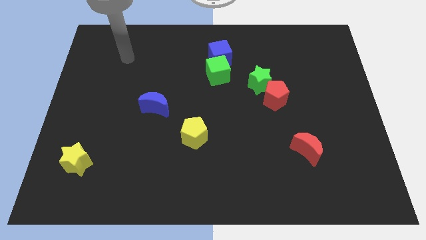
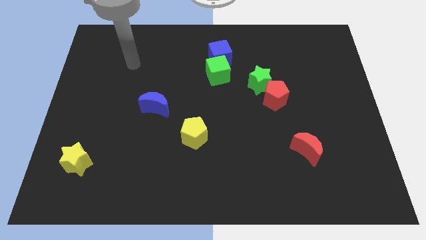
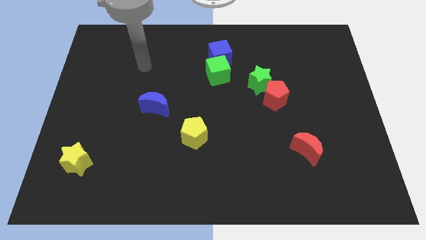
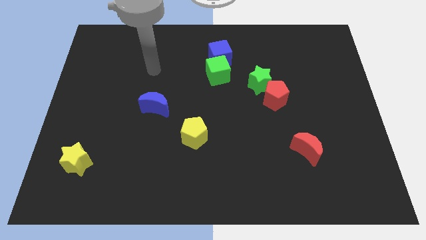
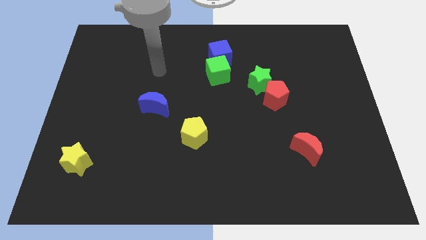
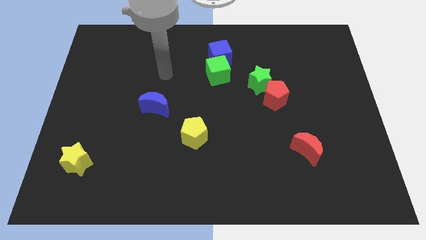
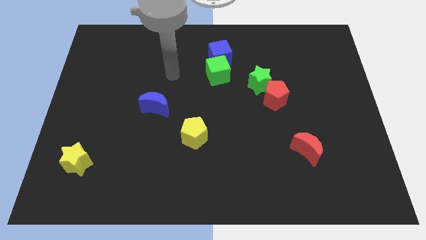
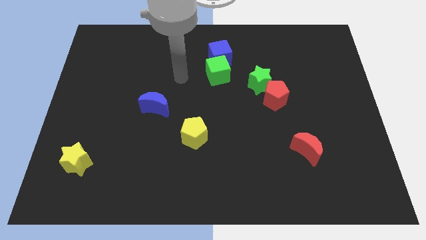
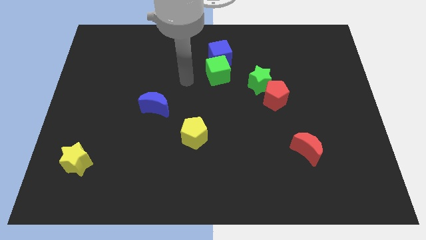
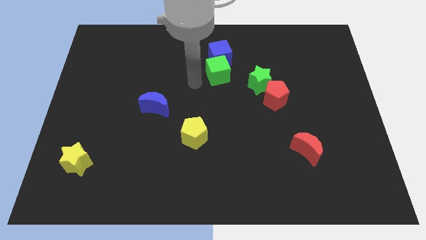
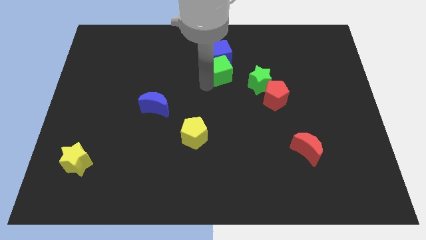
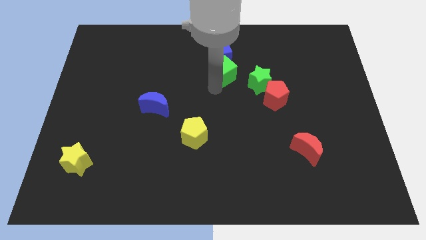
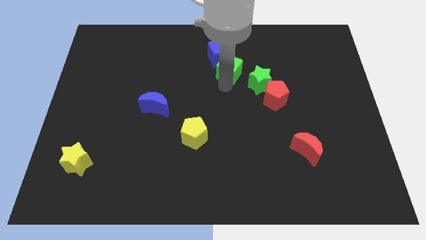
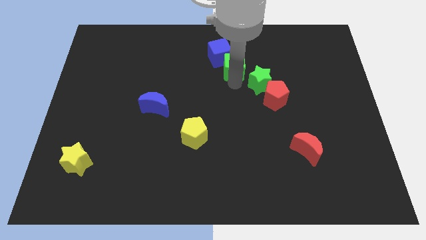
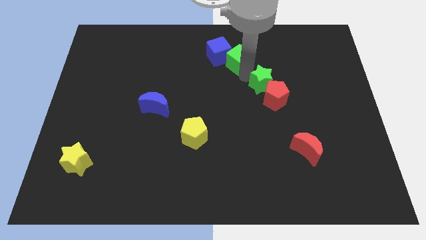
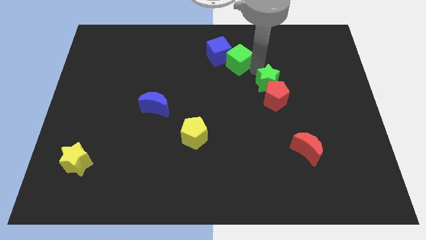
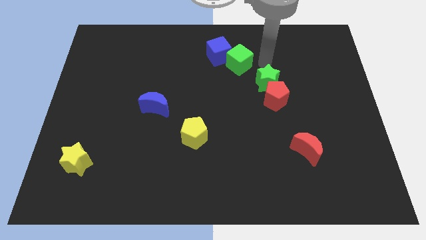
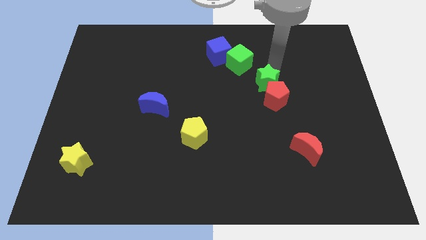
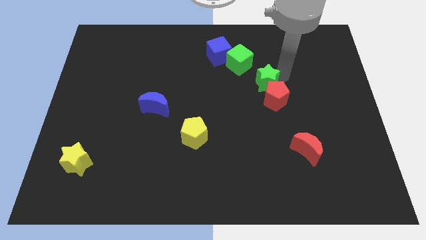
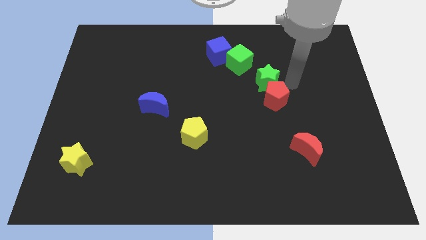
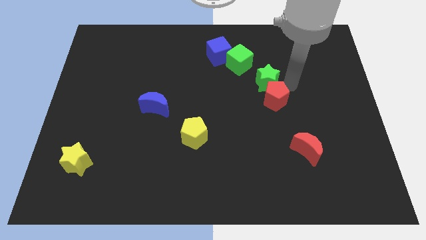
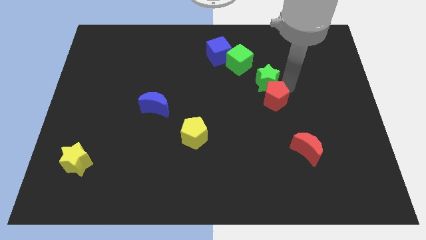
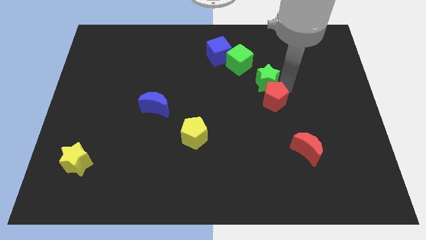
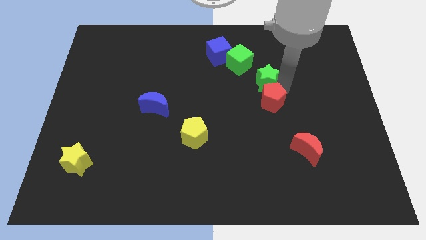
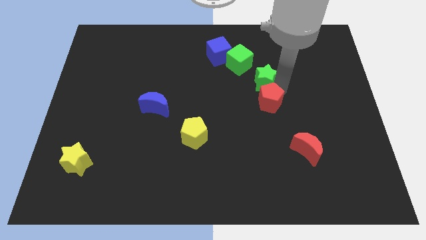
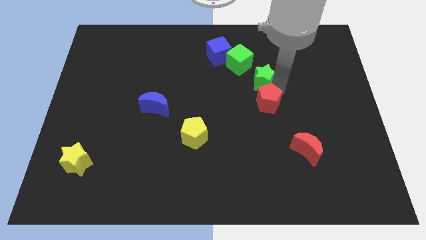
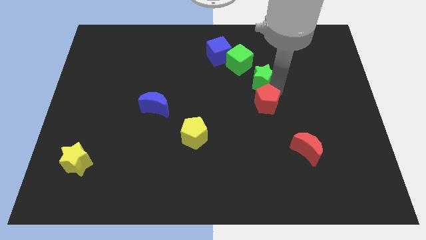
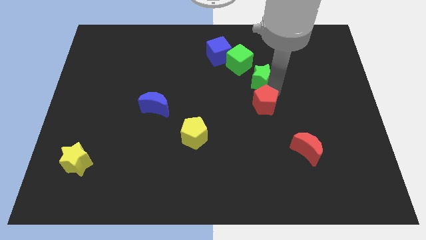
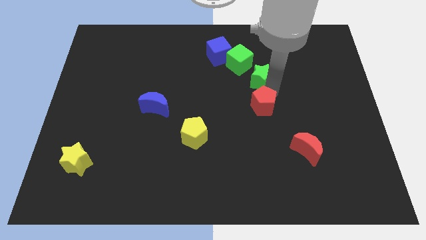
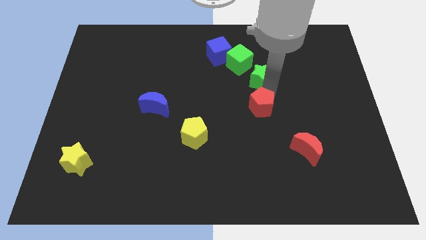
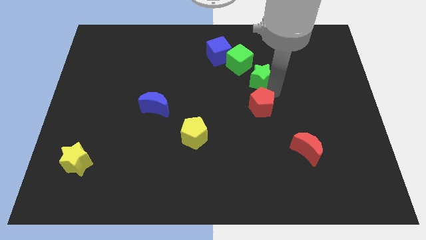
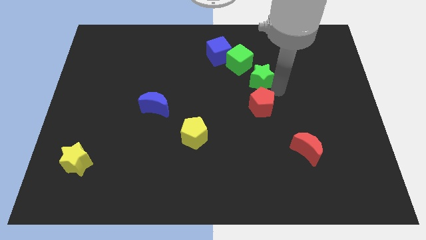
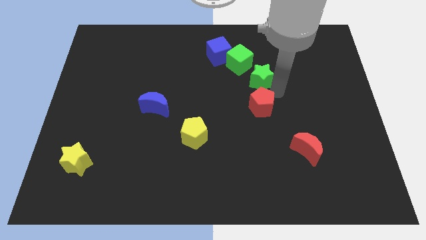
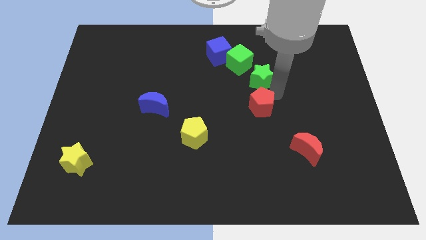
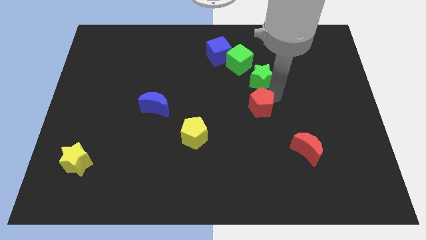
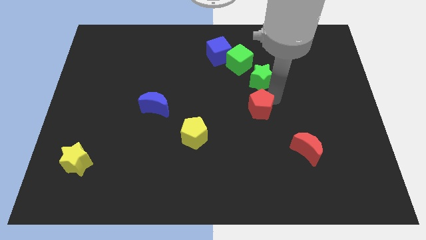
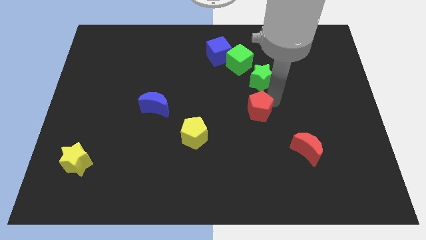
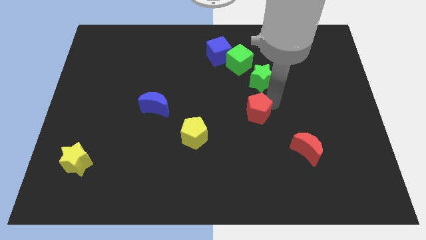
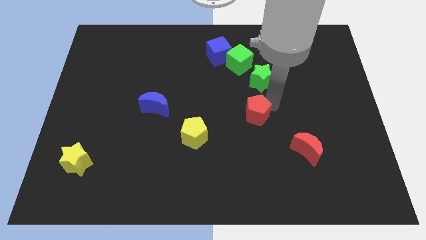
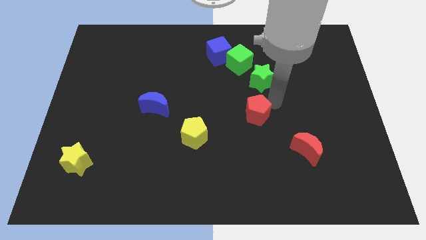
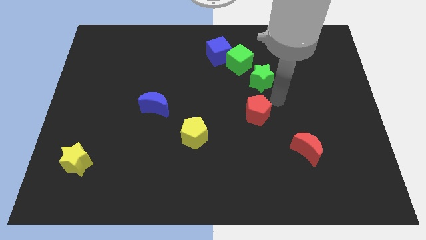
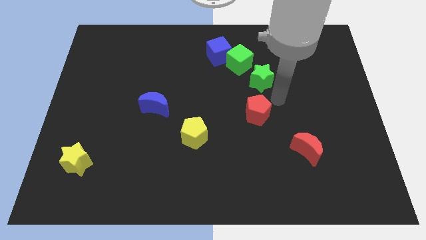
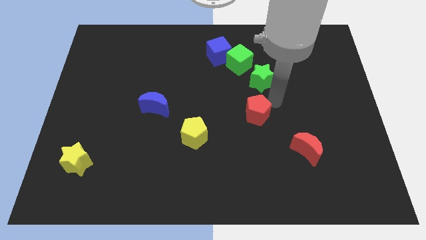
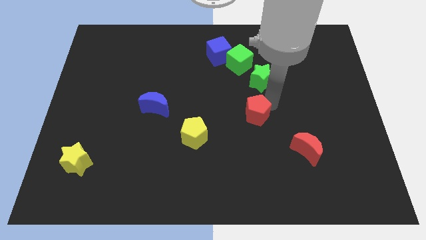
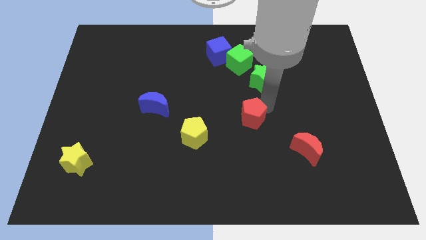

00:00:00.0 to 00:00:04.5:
push the red pentagon a bit diagonally down and left

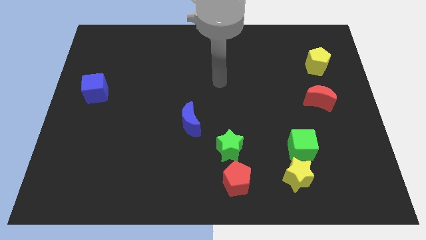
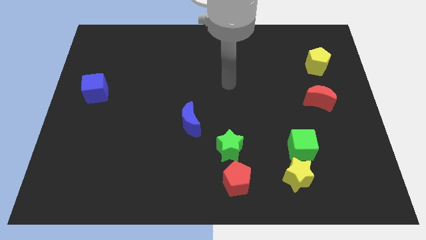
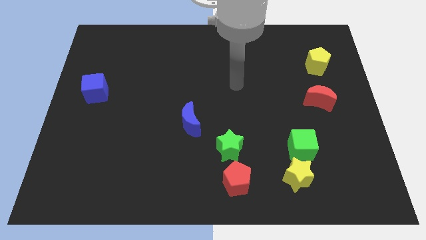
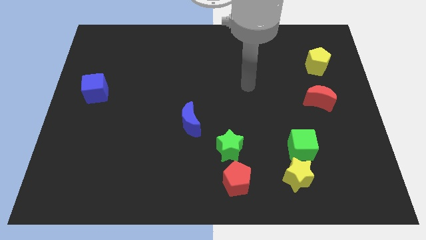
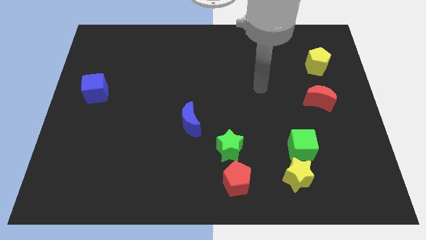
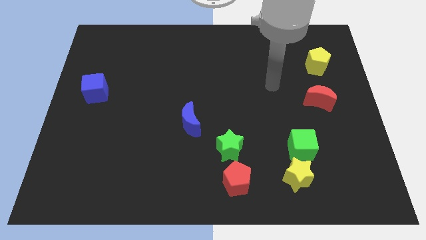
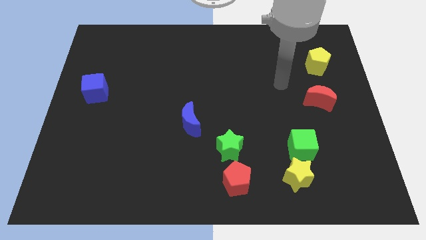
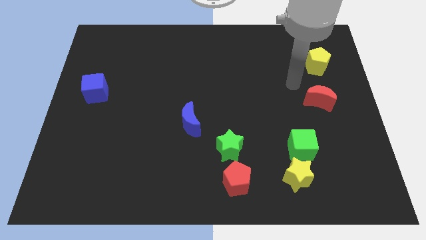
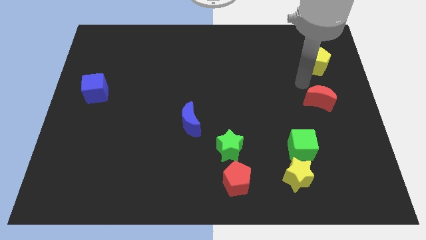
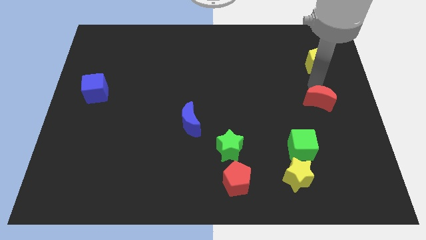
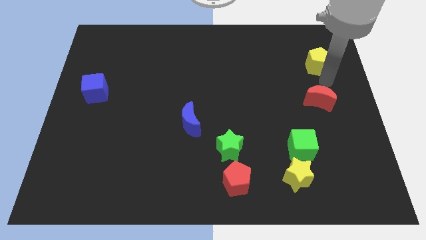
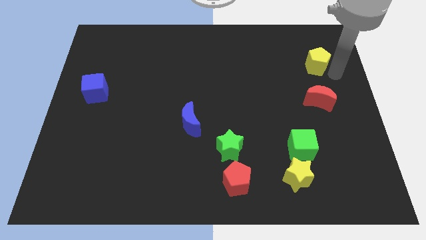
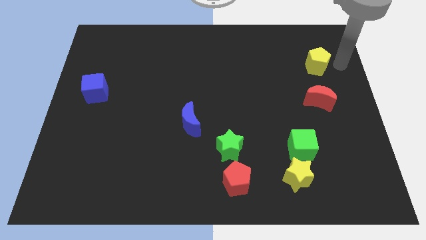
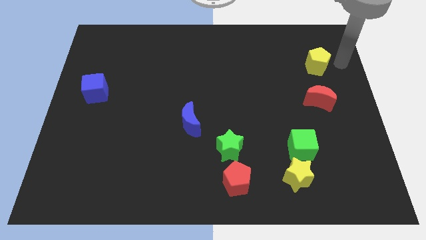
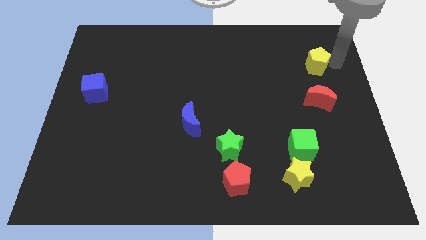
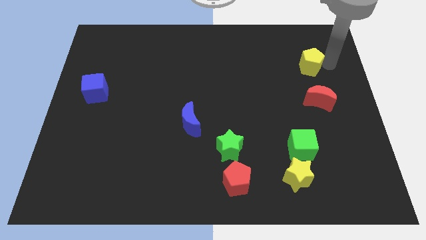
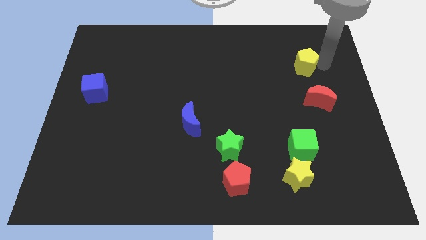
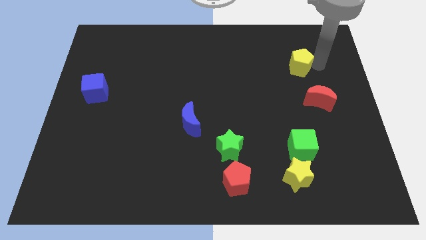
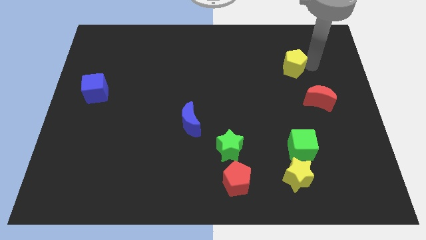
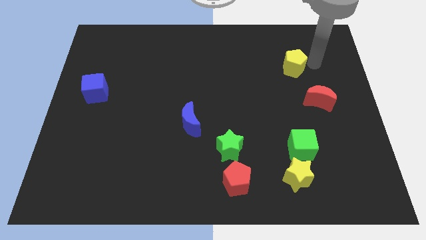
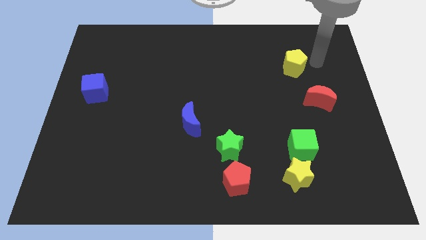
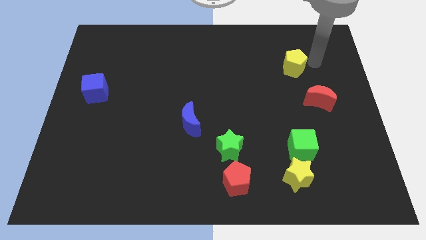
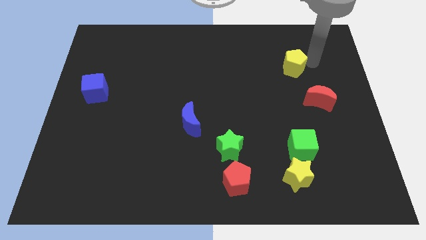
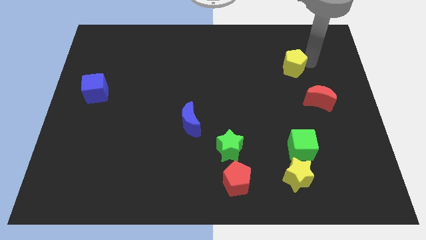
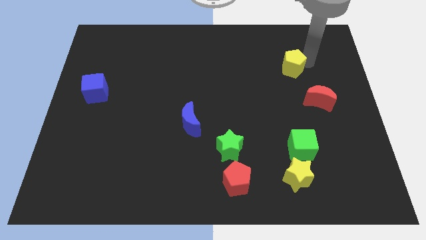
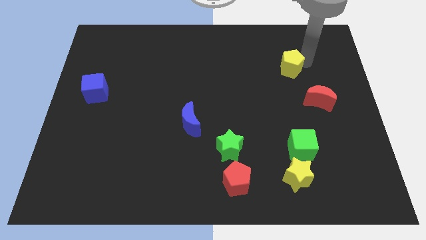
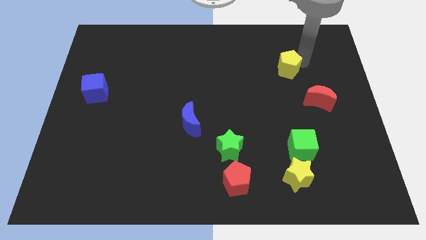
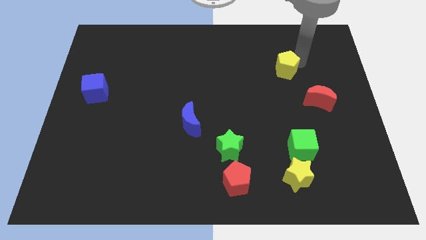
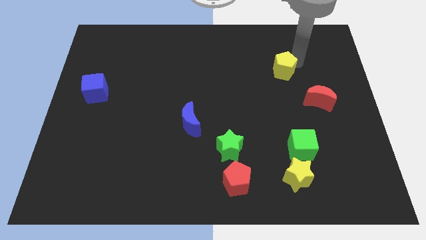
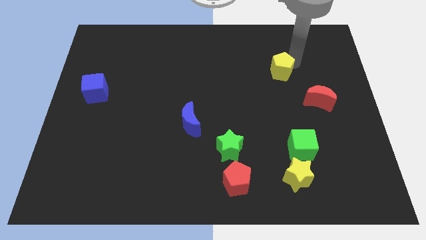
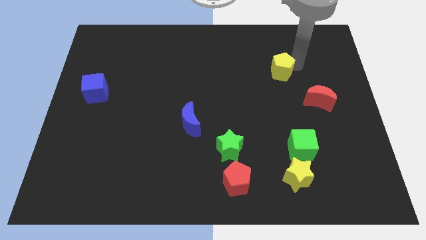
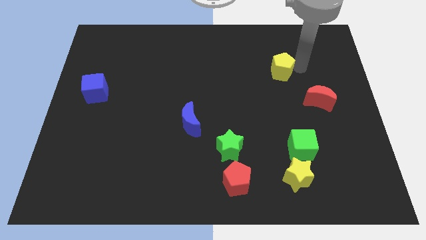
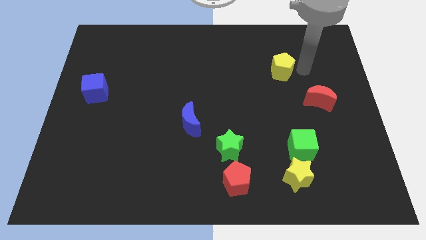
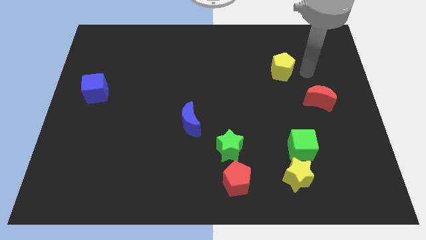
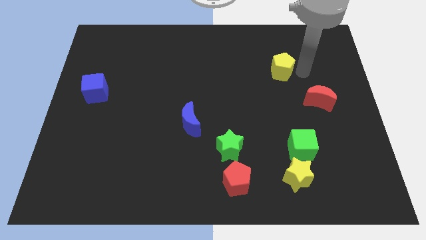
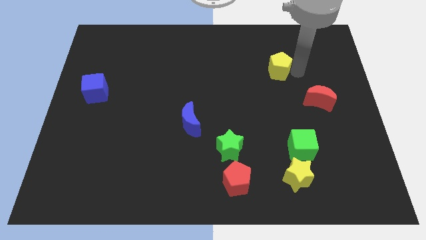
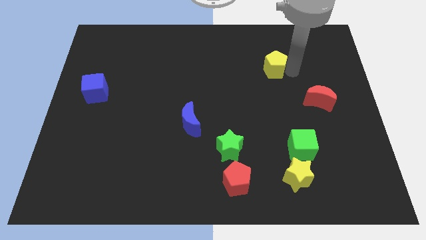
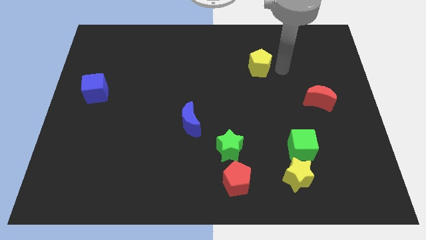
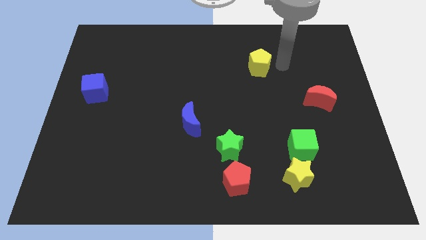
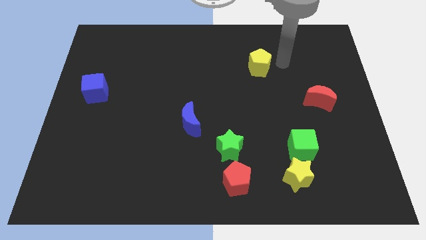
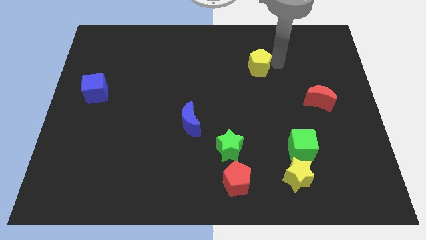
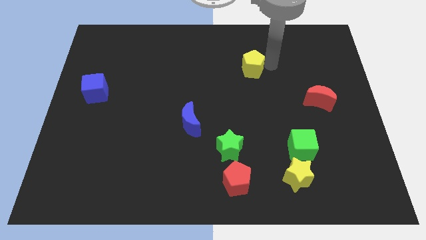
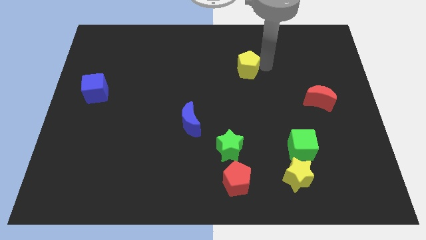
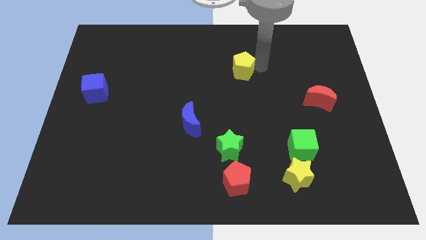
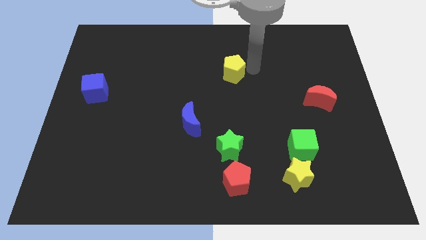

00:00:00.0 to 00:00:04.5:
move the yellow pentagon left
